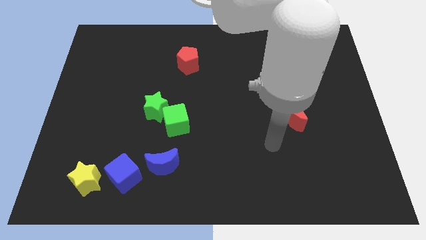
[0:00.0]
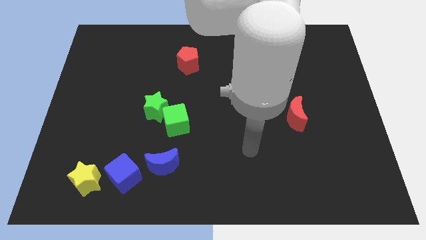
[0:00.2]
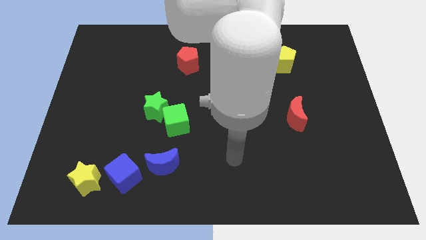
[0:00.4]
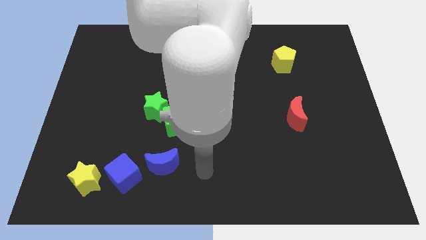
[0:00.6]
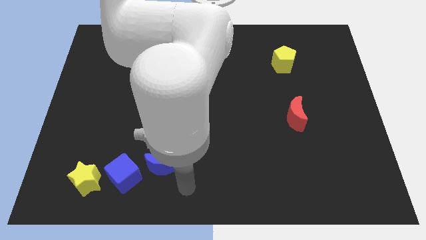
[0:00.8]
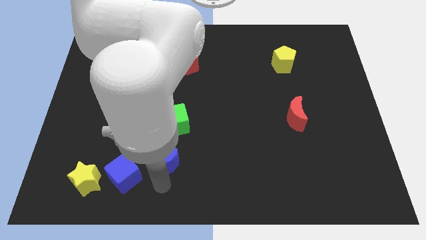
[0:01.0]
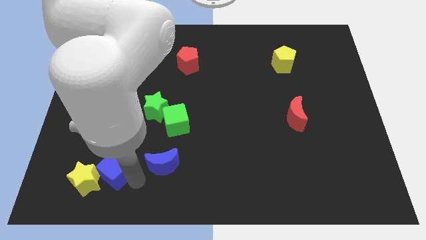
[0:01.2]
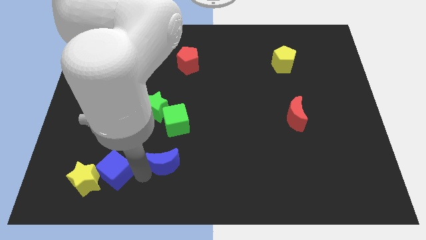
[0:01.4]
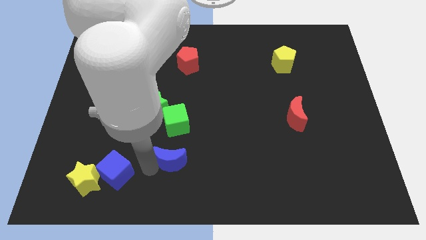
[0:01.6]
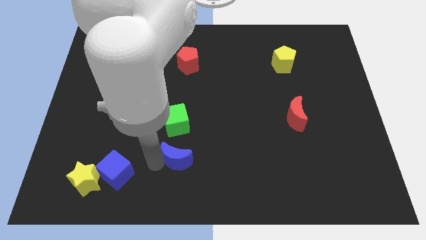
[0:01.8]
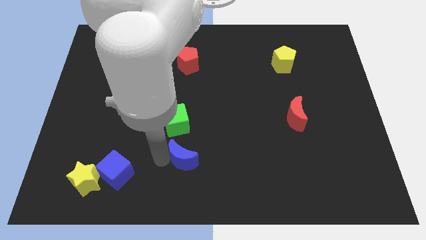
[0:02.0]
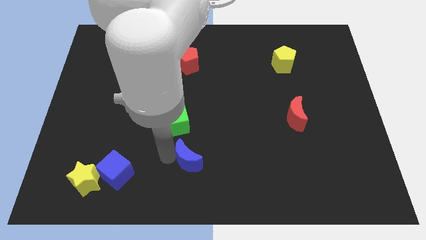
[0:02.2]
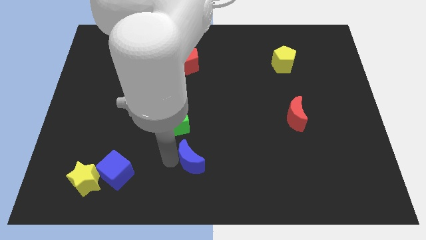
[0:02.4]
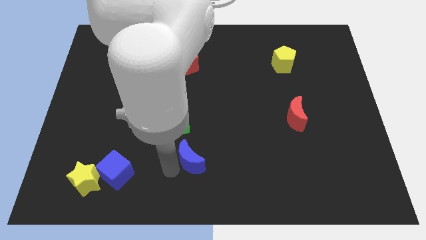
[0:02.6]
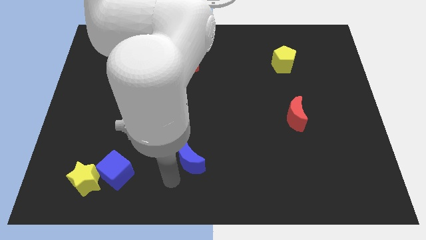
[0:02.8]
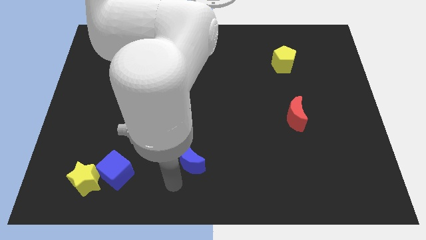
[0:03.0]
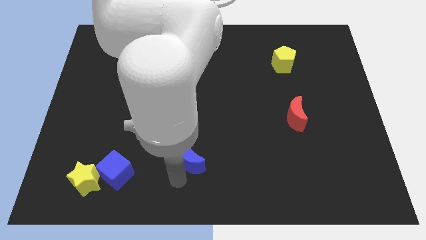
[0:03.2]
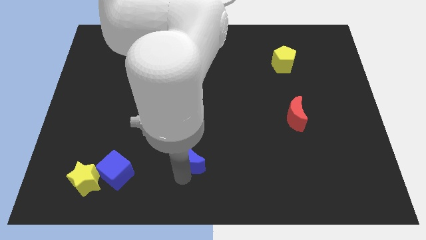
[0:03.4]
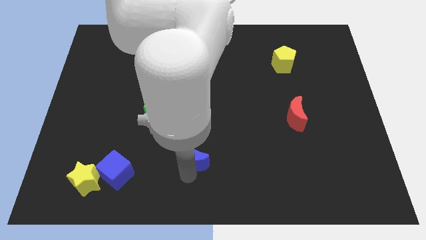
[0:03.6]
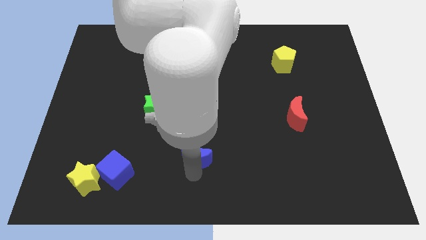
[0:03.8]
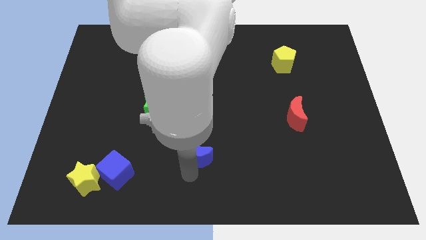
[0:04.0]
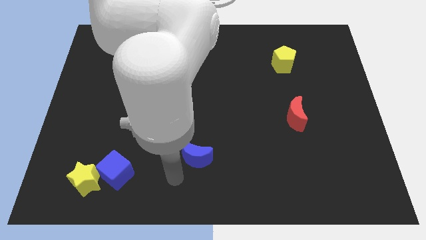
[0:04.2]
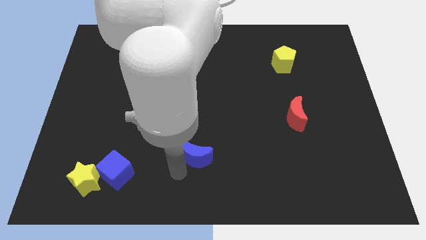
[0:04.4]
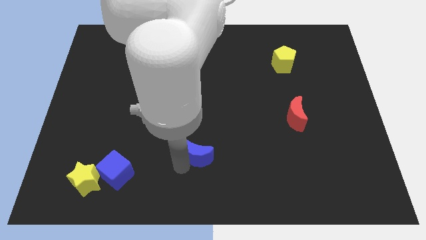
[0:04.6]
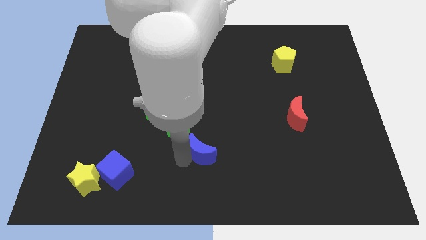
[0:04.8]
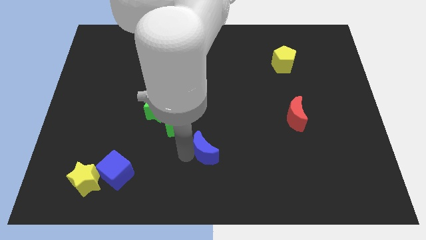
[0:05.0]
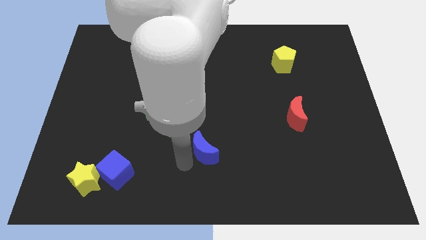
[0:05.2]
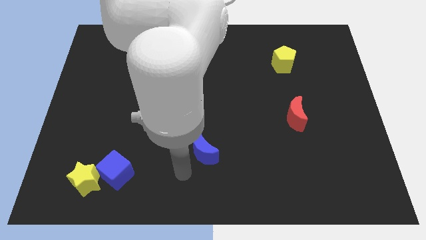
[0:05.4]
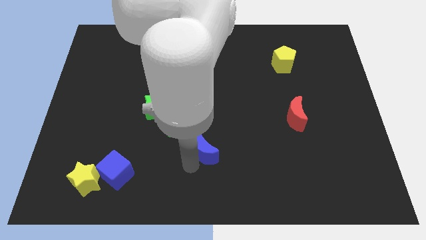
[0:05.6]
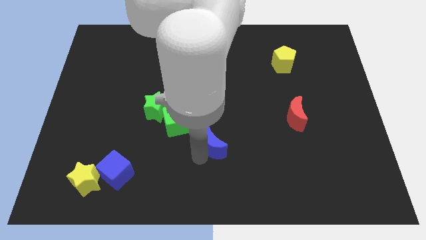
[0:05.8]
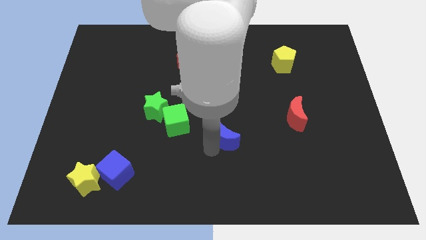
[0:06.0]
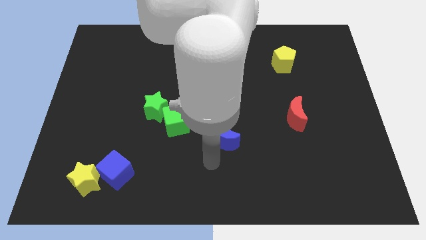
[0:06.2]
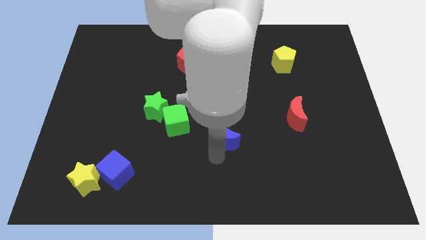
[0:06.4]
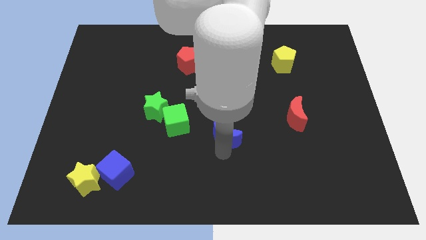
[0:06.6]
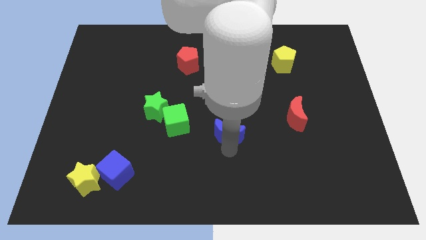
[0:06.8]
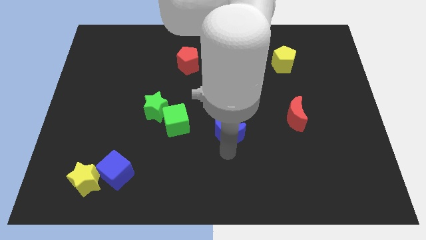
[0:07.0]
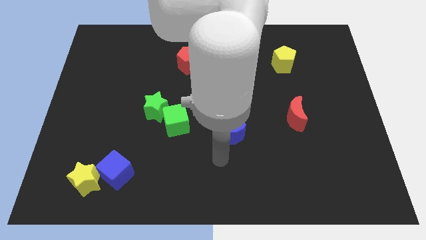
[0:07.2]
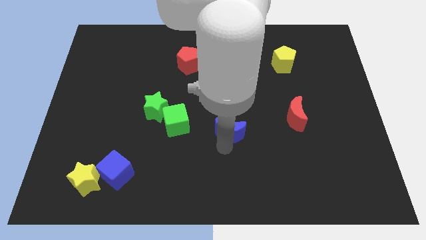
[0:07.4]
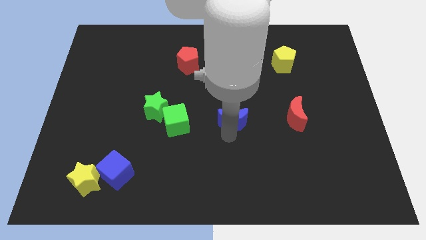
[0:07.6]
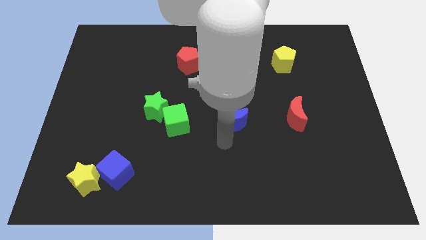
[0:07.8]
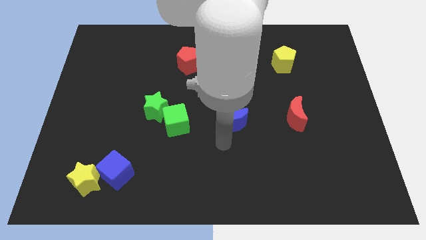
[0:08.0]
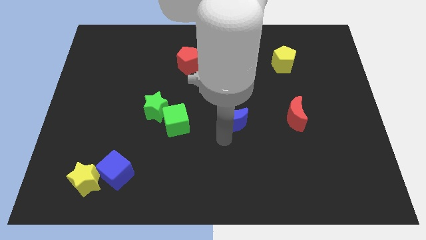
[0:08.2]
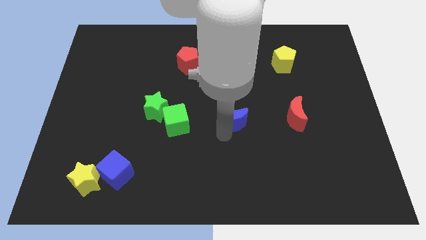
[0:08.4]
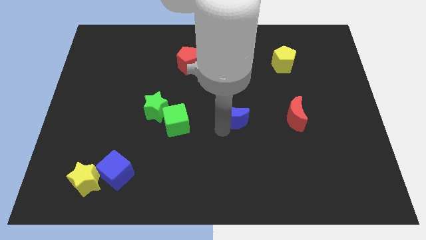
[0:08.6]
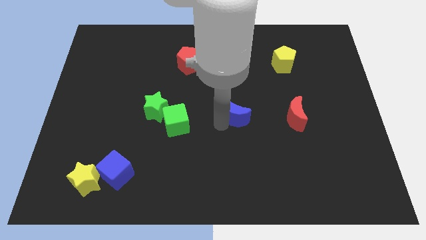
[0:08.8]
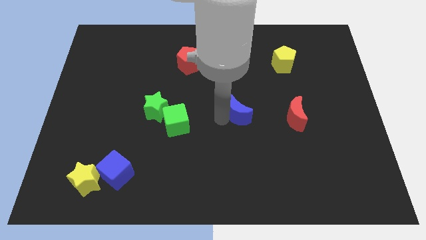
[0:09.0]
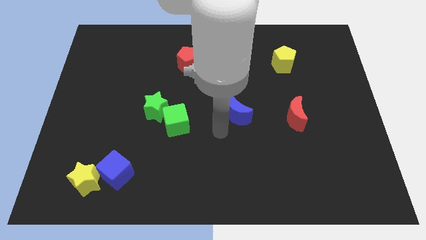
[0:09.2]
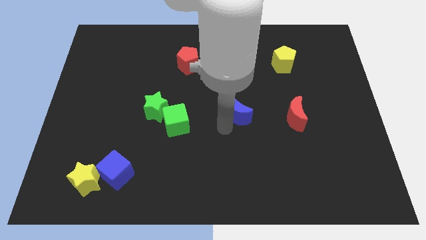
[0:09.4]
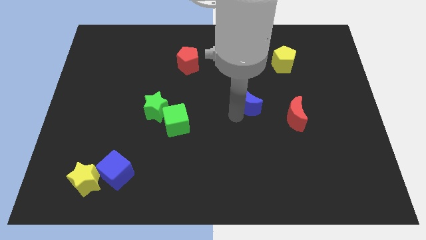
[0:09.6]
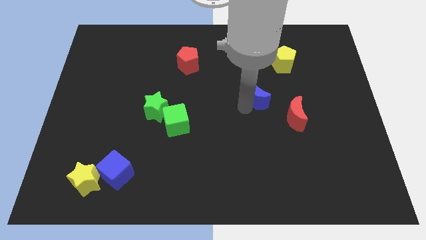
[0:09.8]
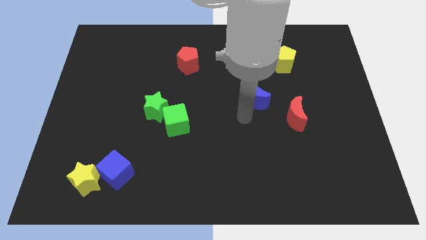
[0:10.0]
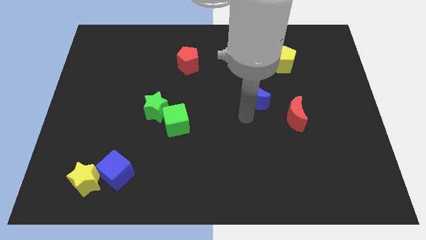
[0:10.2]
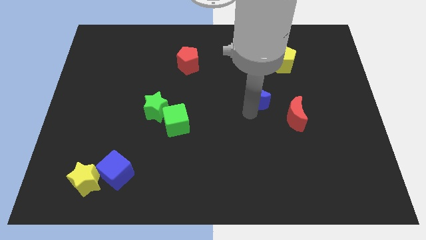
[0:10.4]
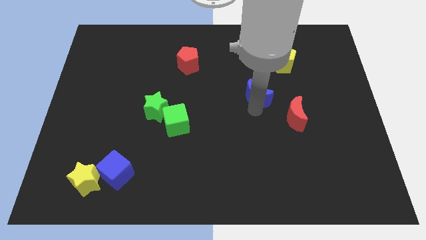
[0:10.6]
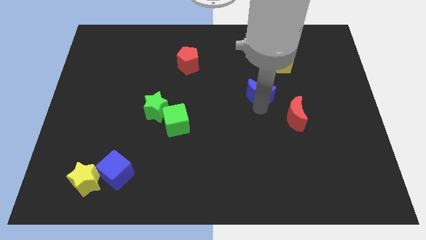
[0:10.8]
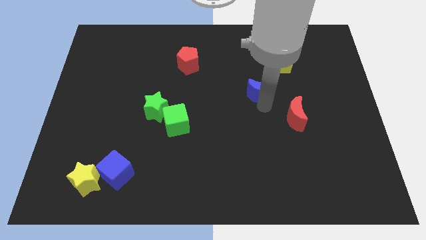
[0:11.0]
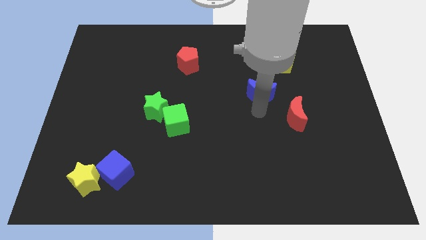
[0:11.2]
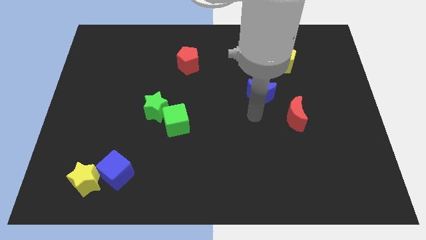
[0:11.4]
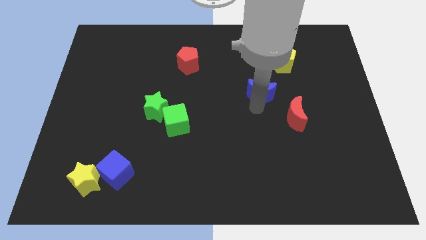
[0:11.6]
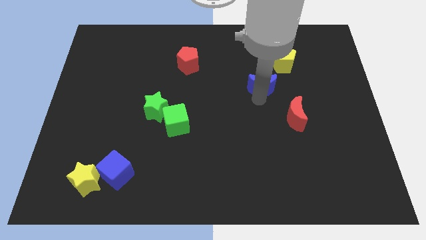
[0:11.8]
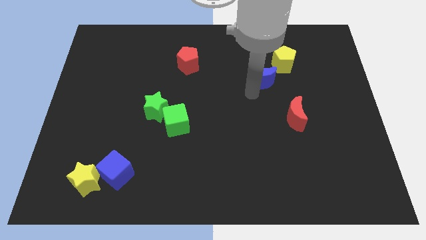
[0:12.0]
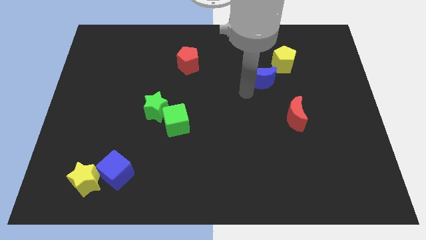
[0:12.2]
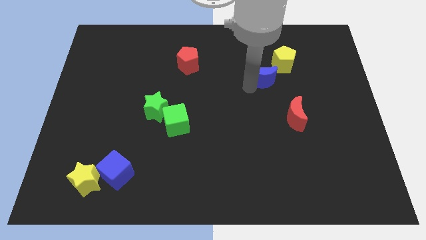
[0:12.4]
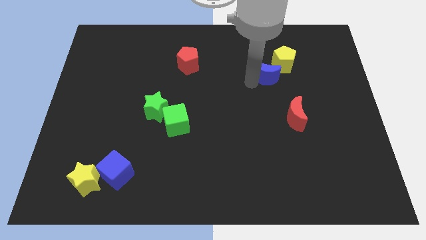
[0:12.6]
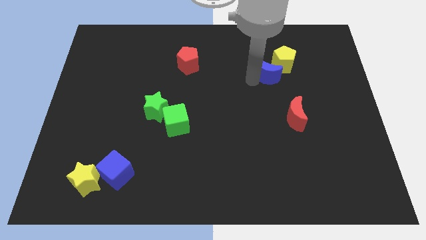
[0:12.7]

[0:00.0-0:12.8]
push the blue moon towards the yellow pentagon

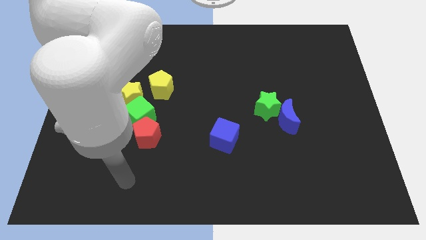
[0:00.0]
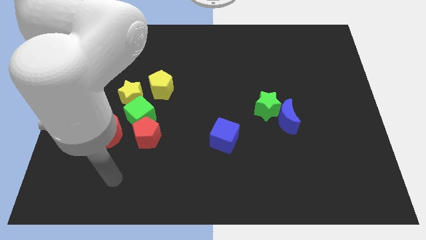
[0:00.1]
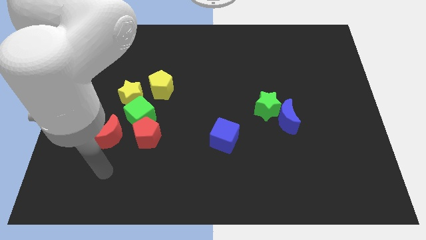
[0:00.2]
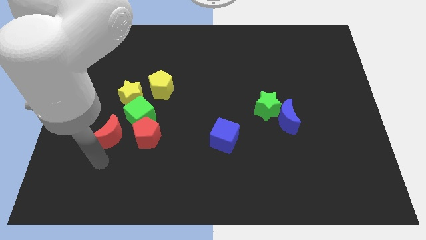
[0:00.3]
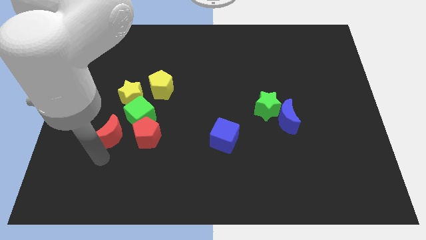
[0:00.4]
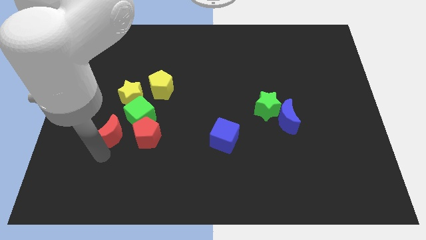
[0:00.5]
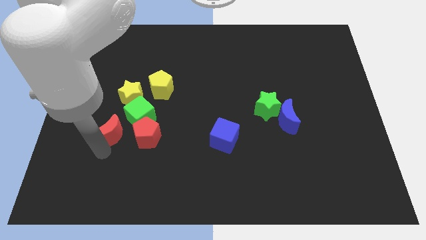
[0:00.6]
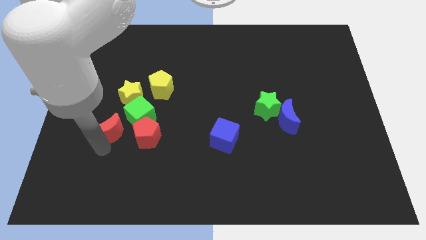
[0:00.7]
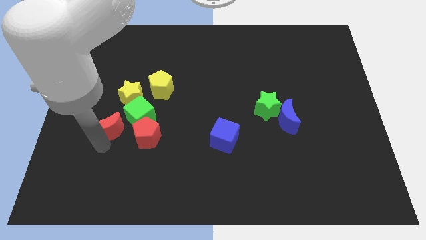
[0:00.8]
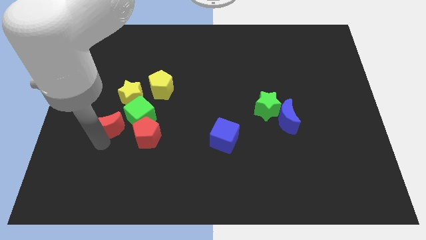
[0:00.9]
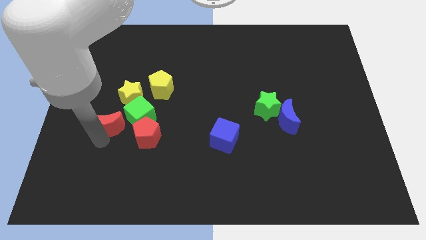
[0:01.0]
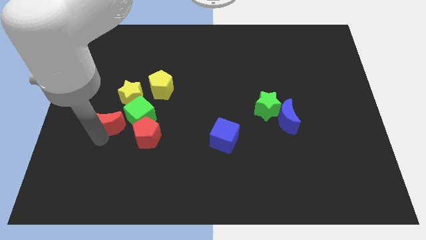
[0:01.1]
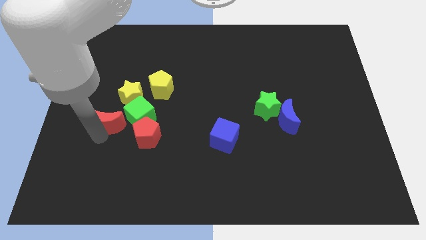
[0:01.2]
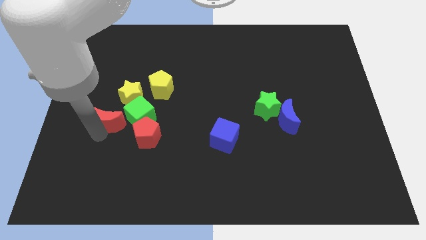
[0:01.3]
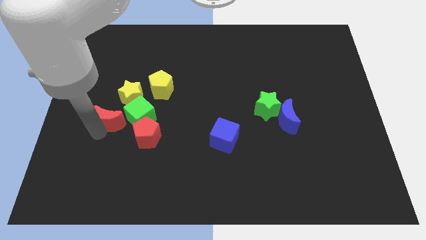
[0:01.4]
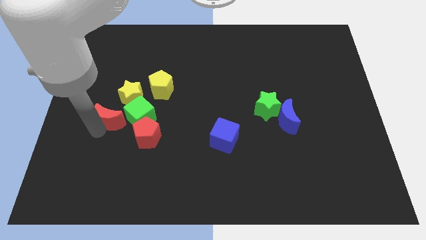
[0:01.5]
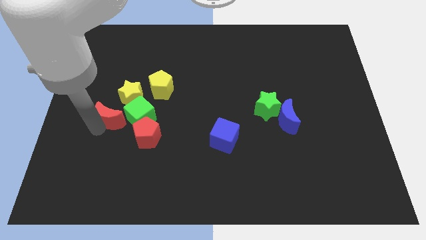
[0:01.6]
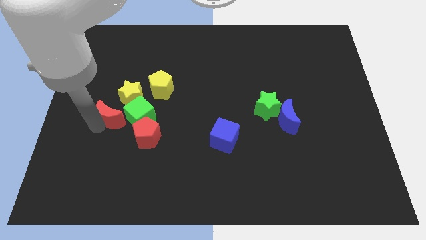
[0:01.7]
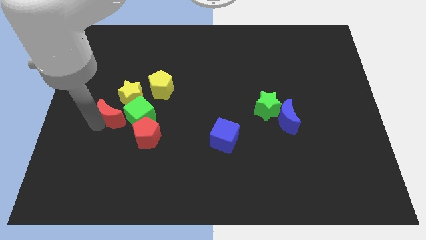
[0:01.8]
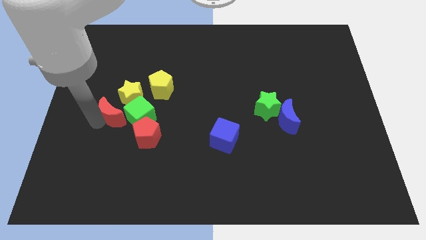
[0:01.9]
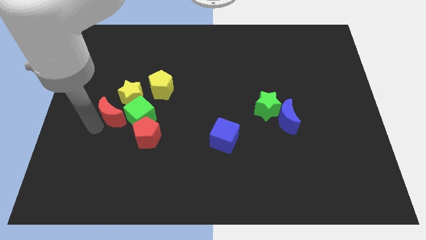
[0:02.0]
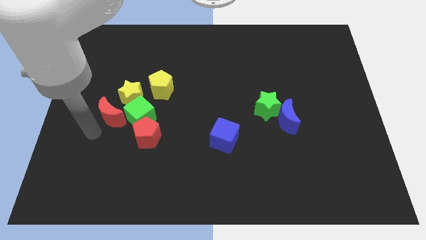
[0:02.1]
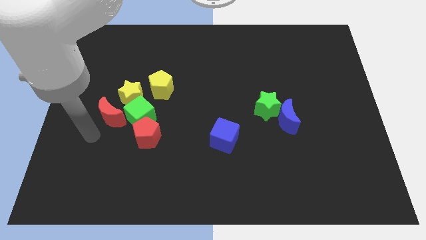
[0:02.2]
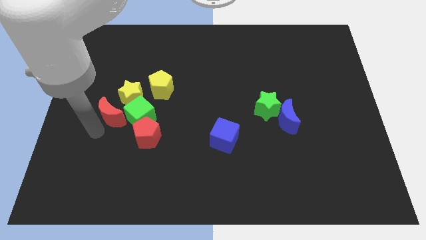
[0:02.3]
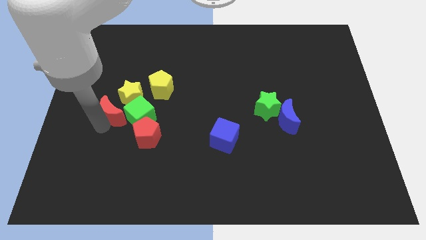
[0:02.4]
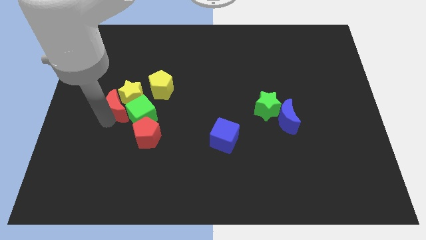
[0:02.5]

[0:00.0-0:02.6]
slide the red moon towards the yellow star
